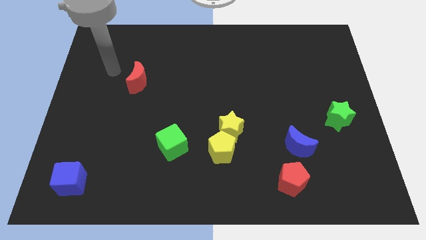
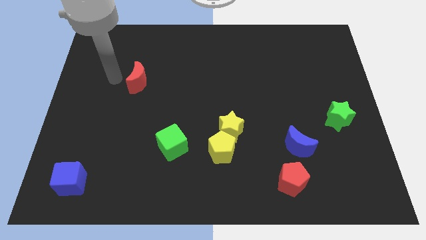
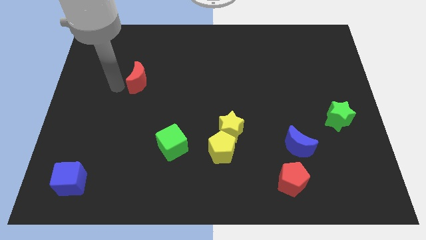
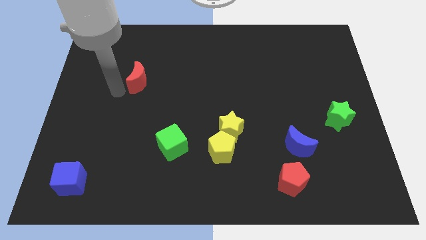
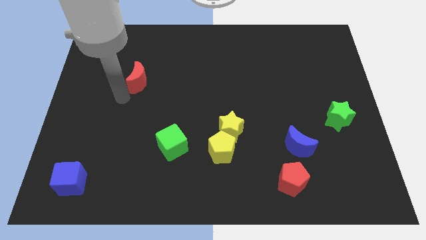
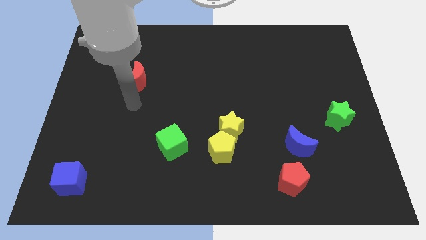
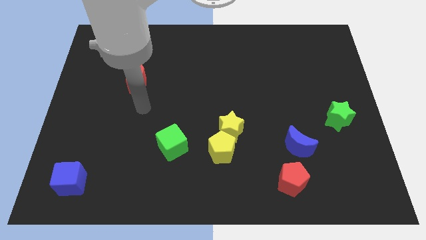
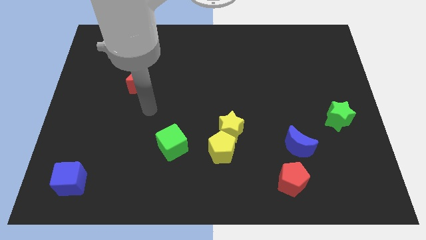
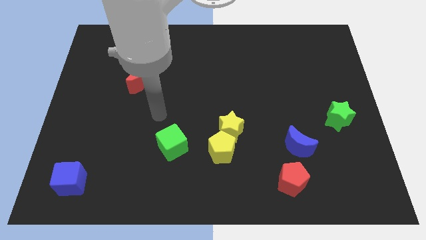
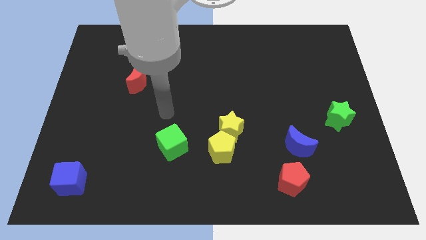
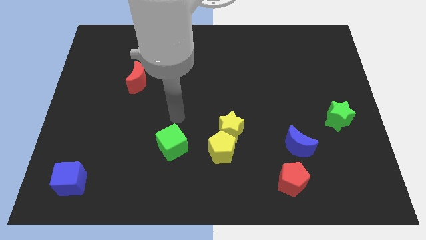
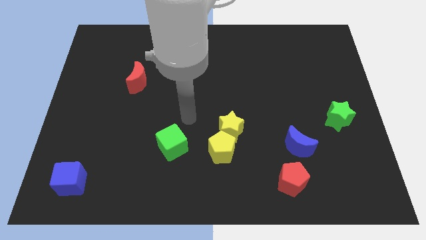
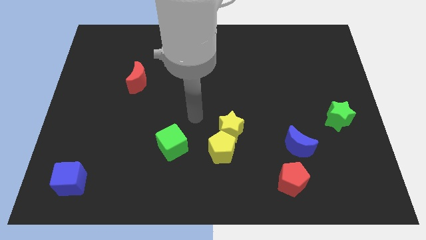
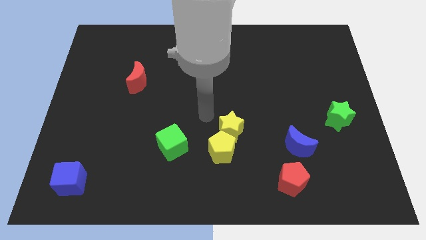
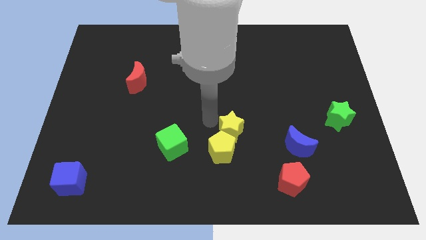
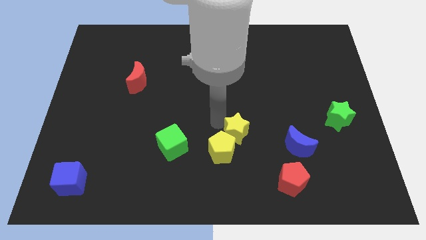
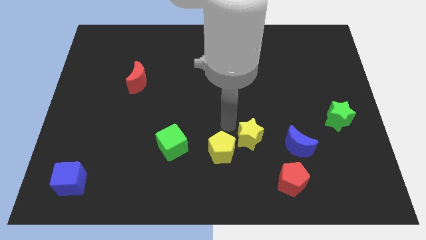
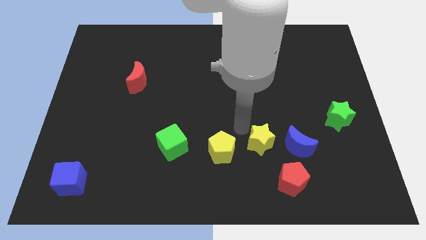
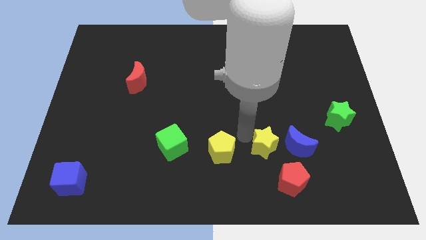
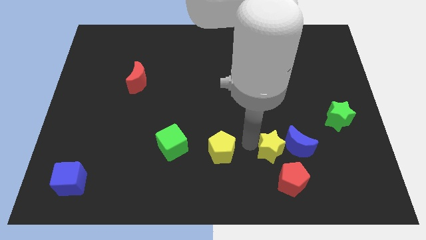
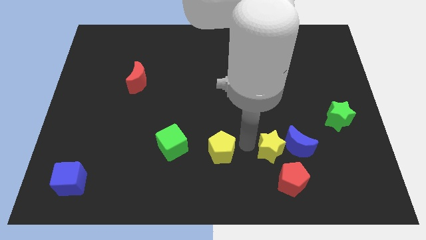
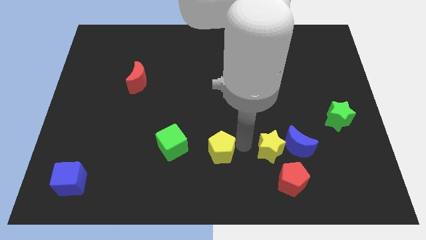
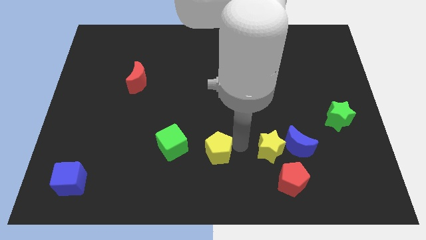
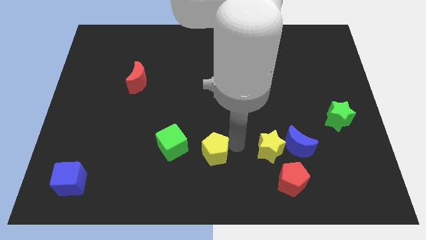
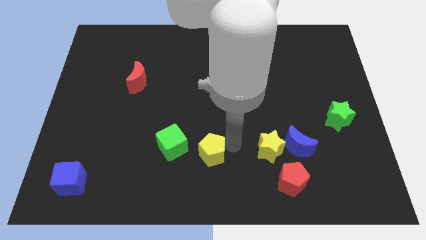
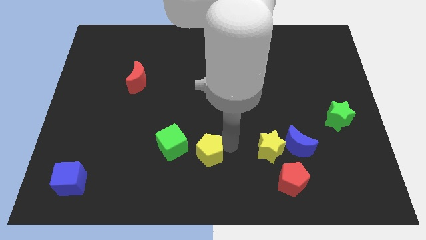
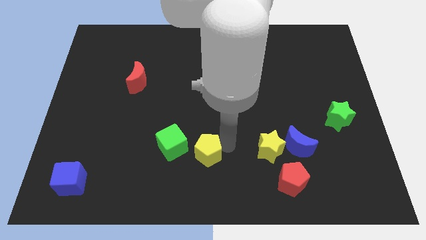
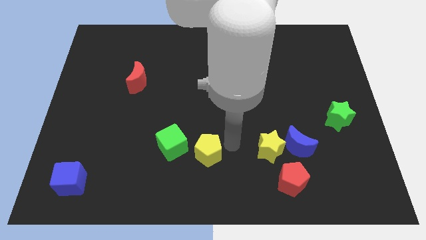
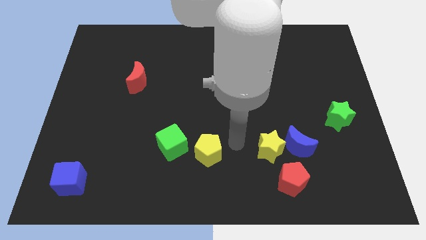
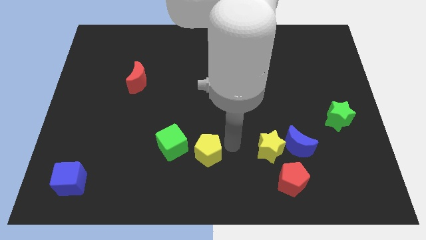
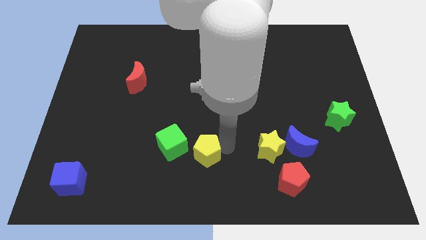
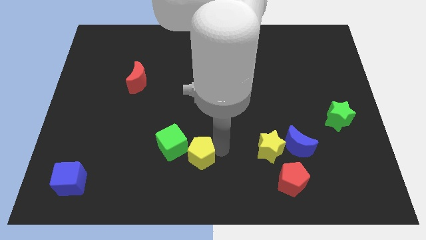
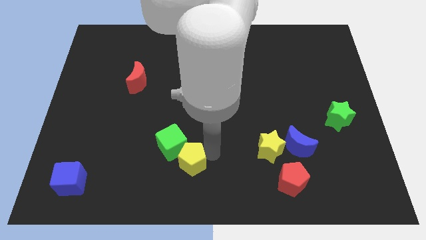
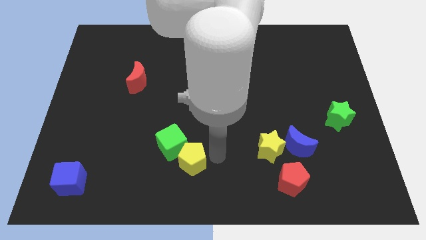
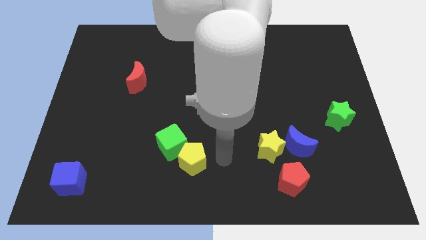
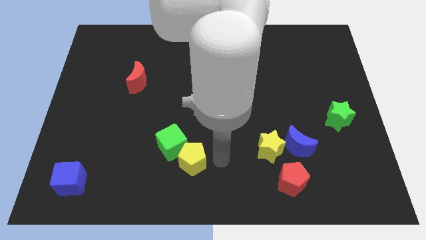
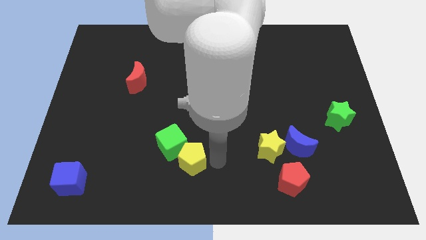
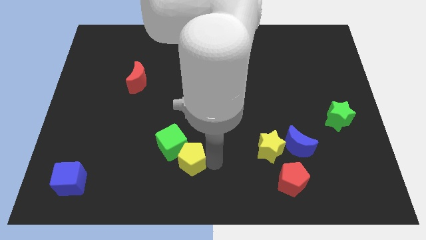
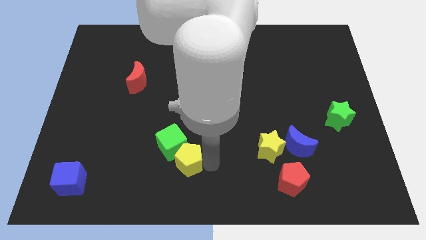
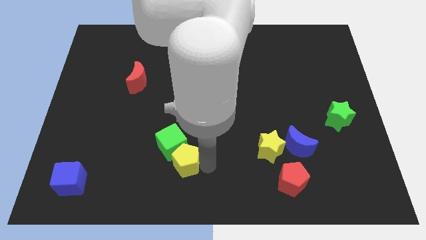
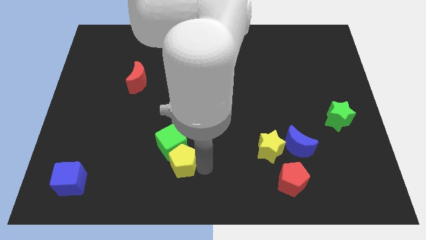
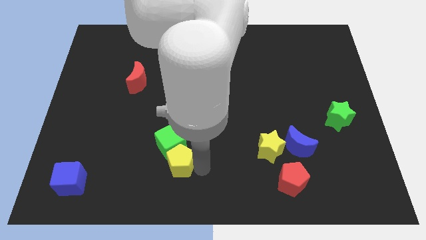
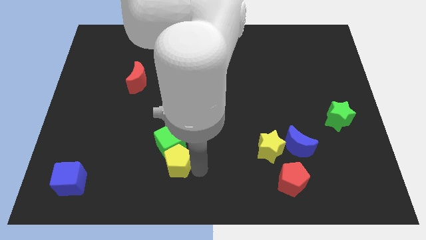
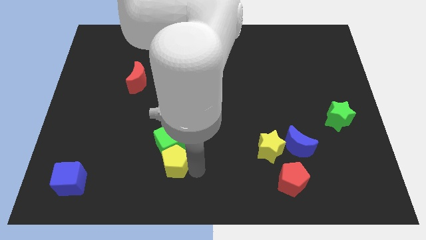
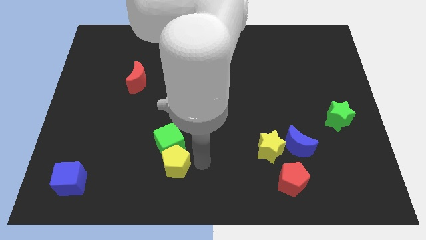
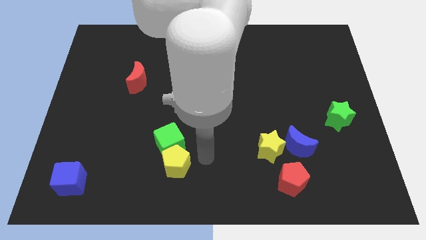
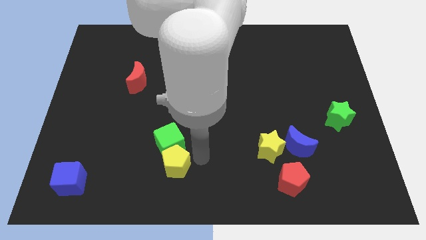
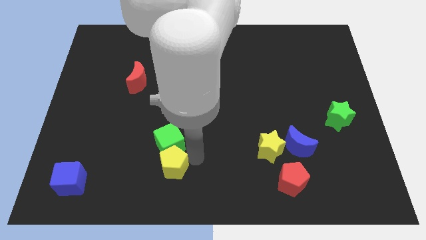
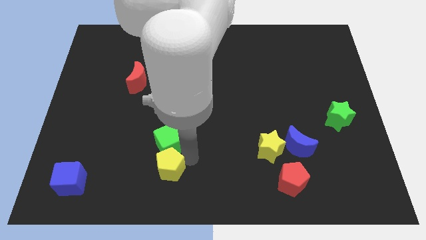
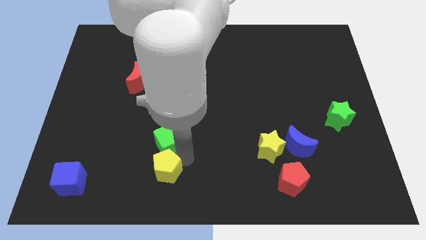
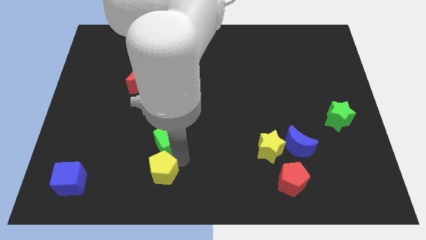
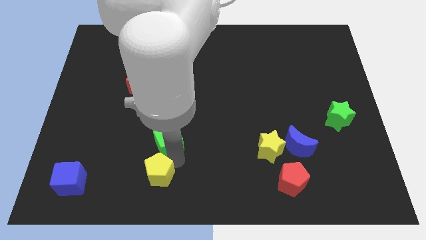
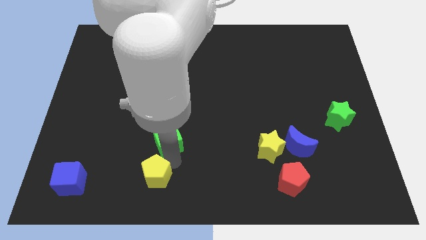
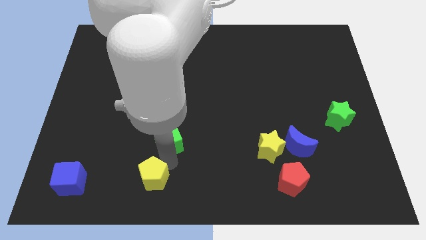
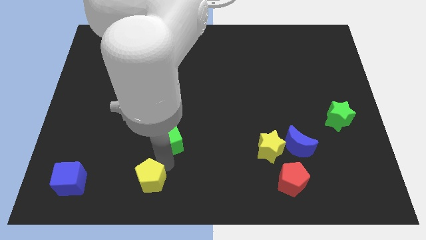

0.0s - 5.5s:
put the yellow pentagon right of the blue cube

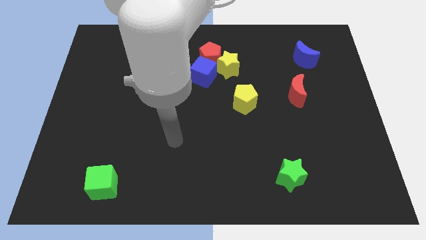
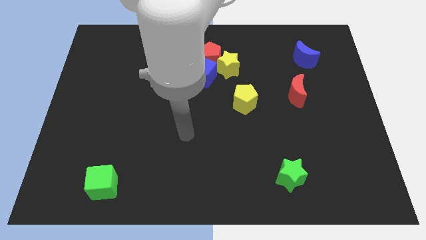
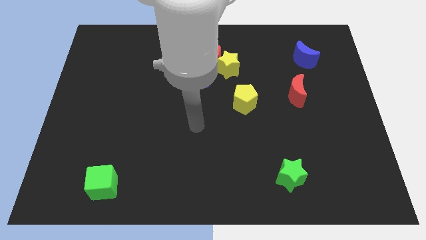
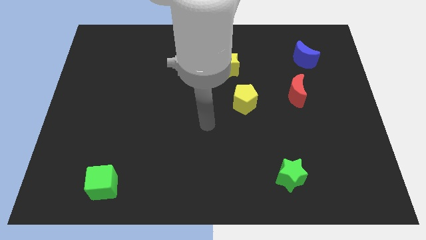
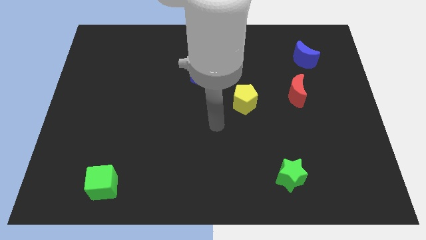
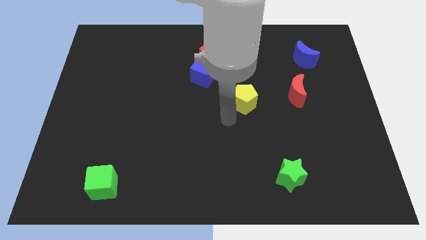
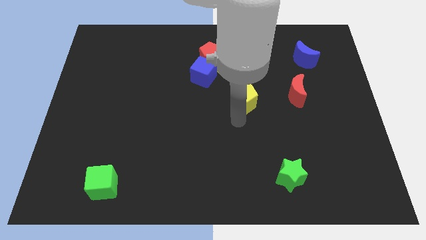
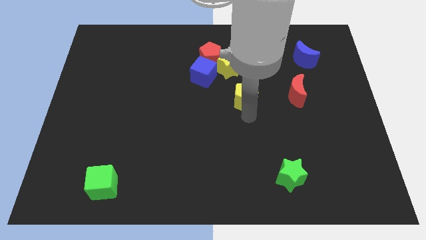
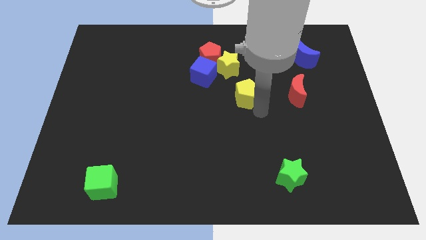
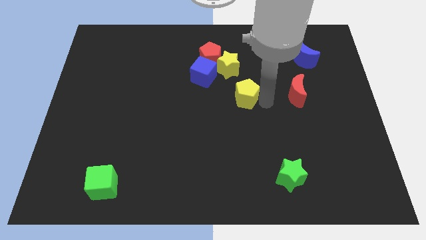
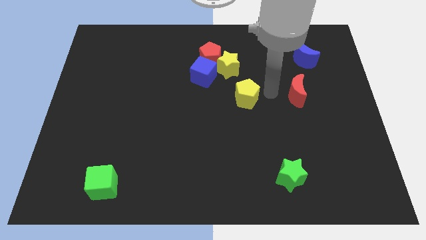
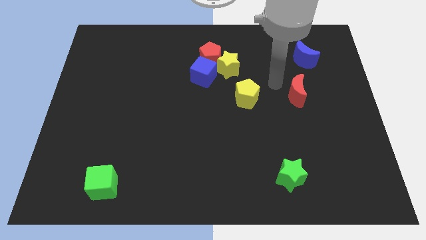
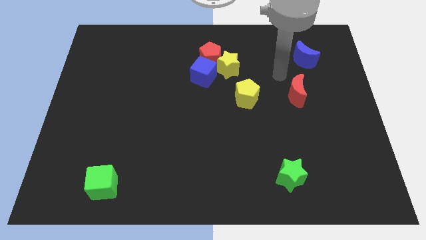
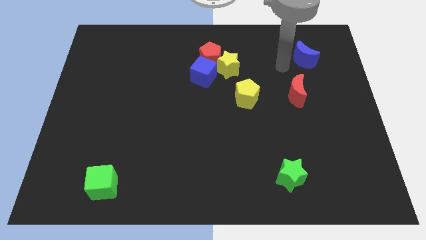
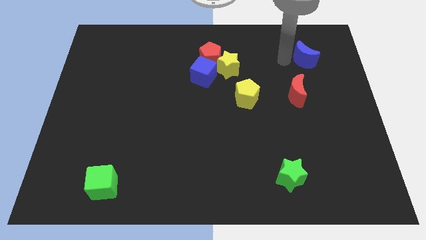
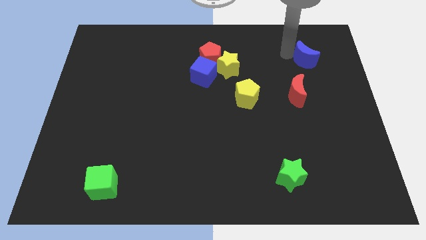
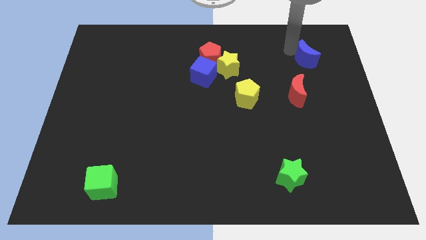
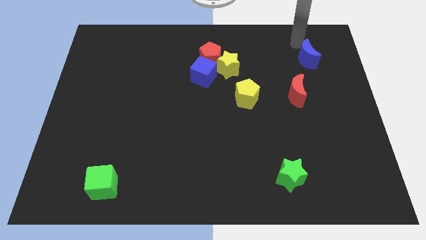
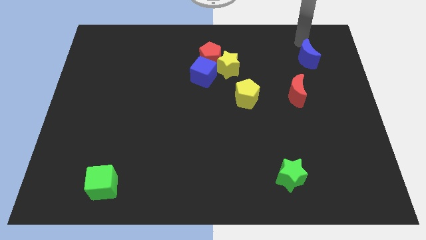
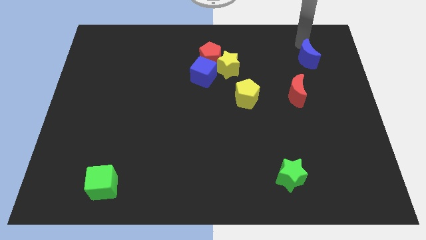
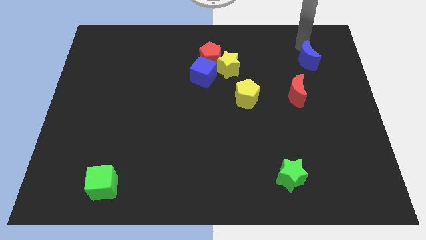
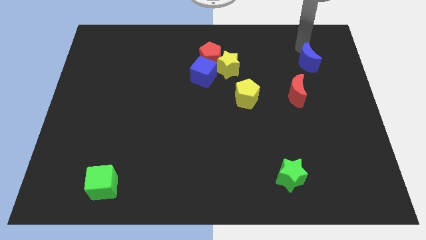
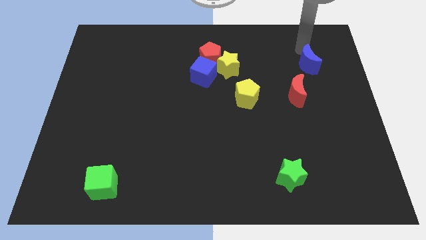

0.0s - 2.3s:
push the blue moon to the top right of the red moon

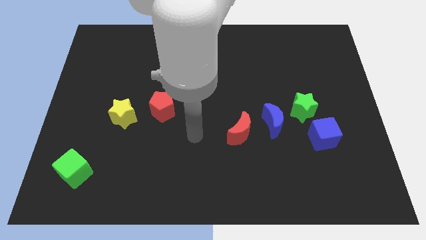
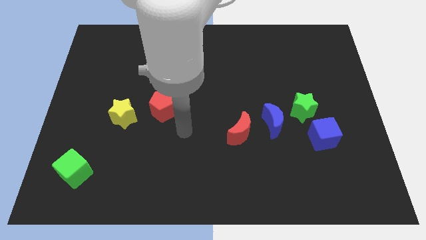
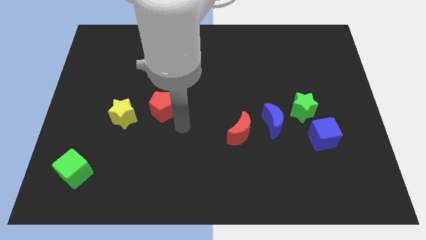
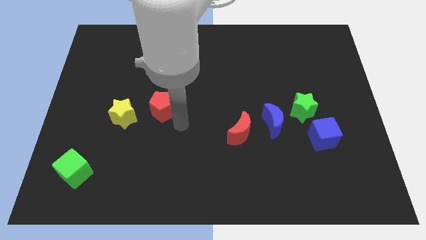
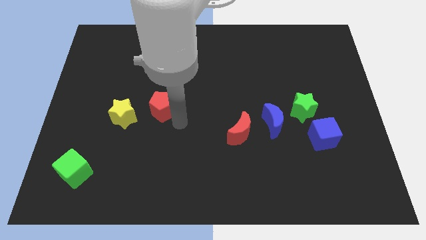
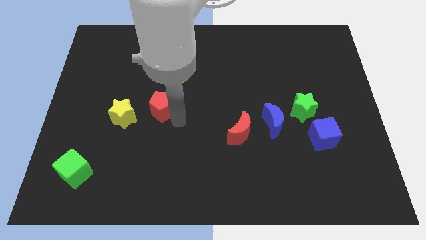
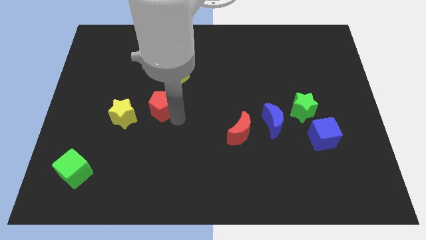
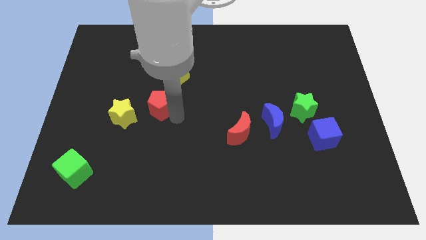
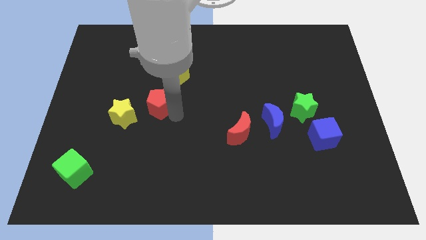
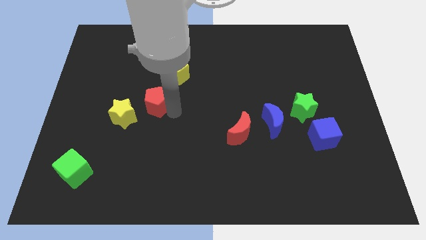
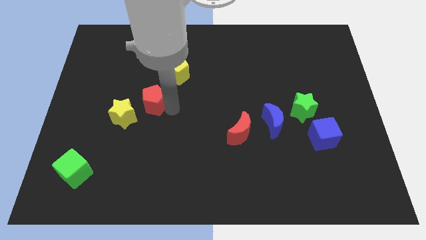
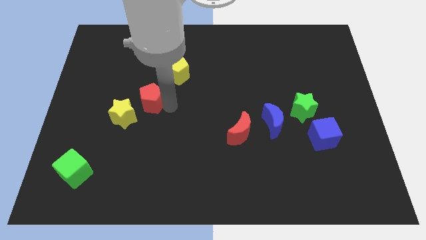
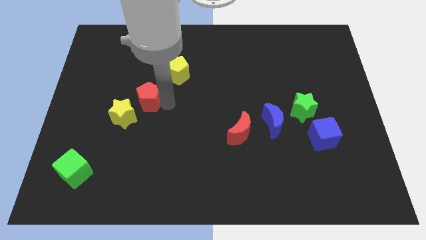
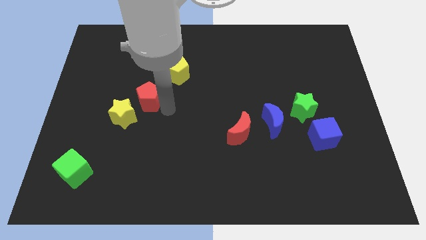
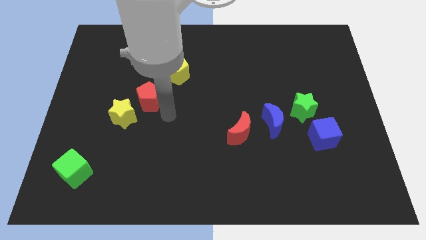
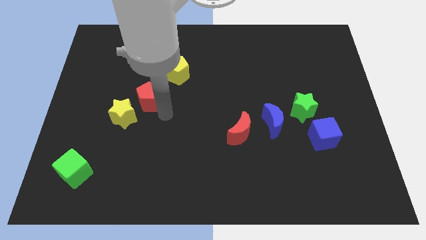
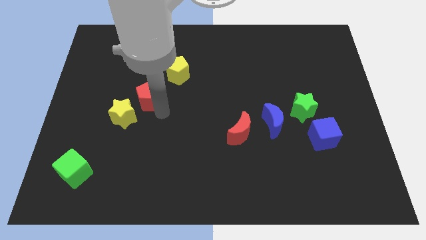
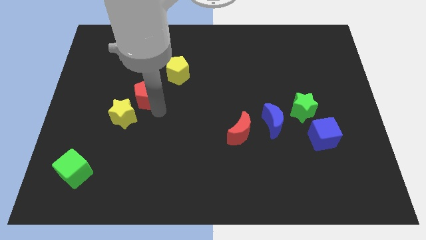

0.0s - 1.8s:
push the red pentagon to the top side of the yellow star
